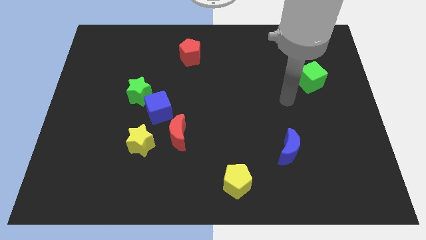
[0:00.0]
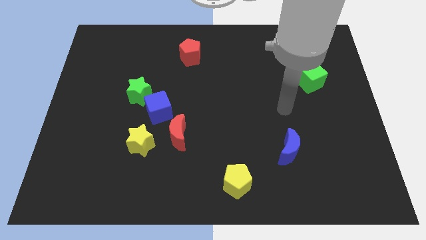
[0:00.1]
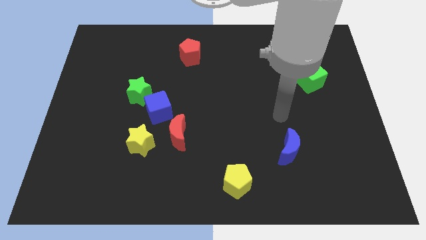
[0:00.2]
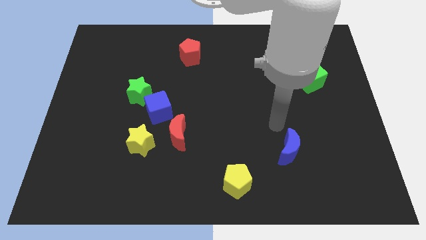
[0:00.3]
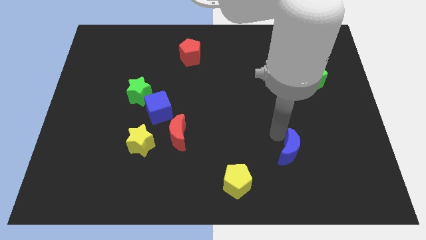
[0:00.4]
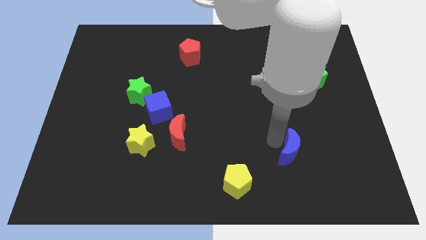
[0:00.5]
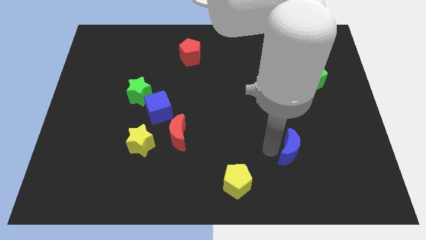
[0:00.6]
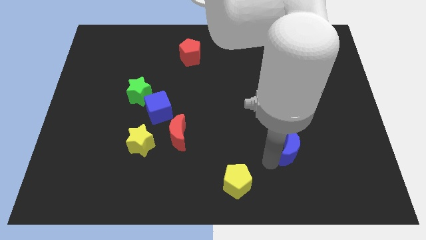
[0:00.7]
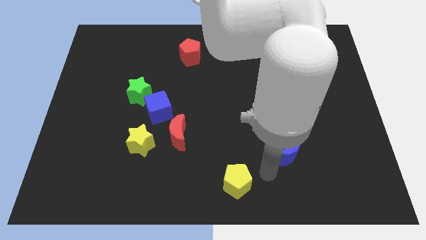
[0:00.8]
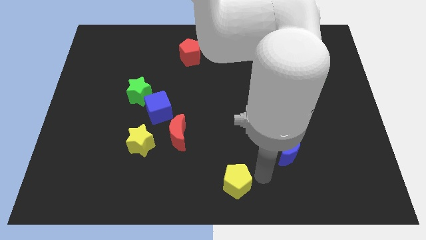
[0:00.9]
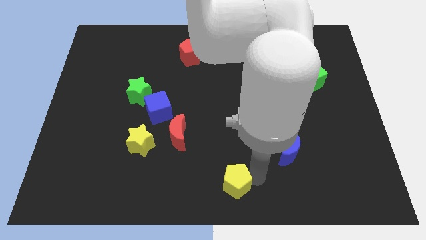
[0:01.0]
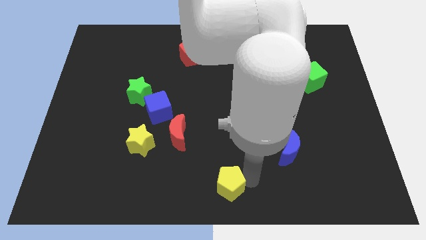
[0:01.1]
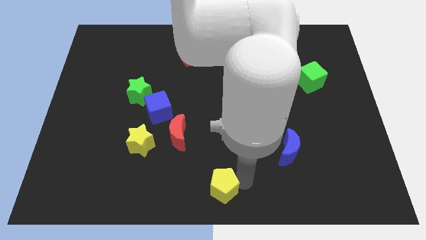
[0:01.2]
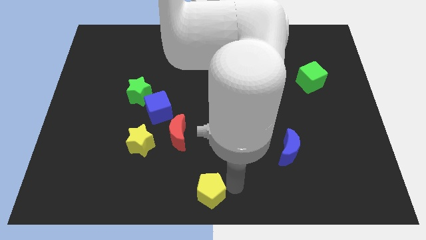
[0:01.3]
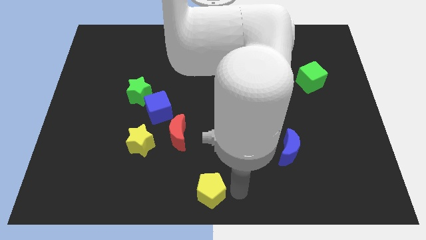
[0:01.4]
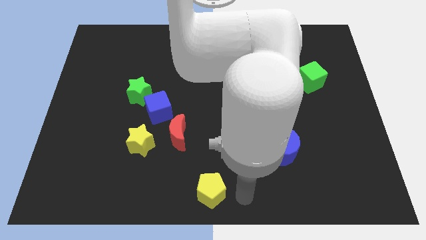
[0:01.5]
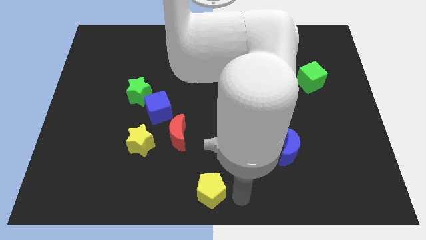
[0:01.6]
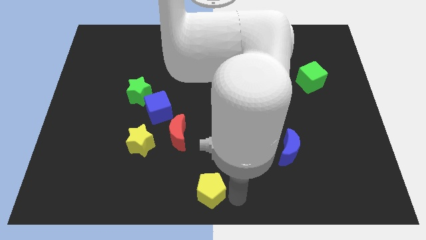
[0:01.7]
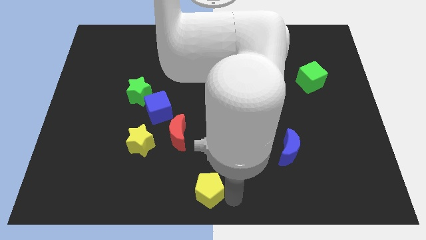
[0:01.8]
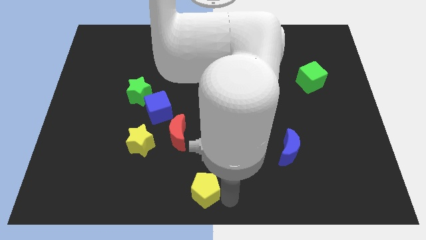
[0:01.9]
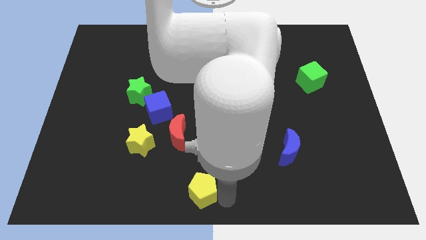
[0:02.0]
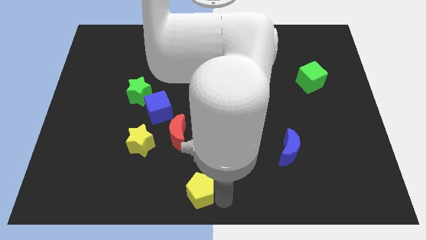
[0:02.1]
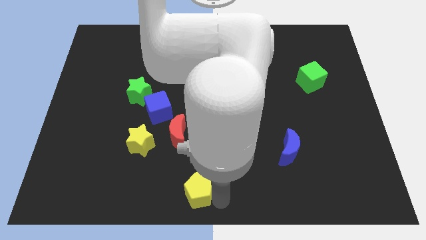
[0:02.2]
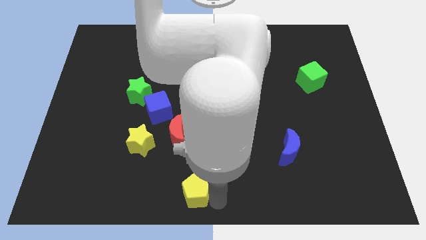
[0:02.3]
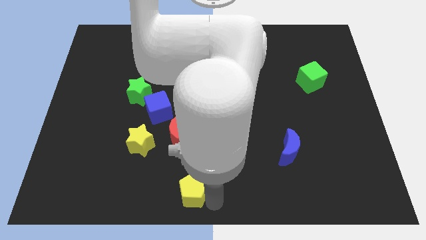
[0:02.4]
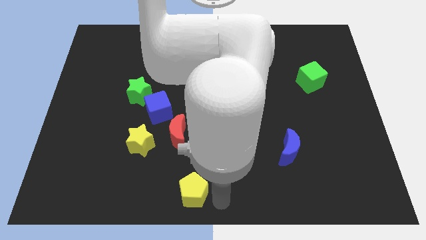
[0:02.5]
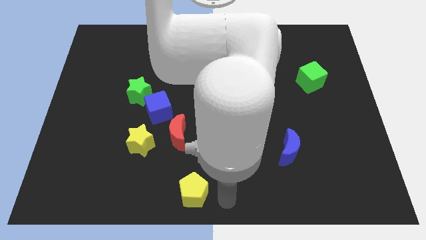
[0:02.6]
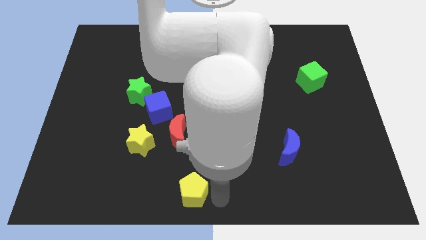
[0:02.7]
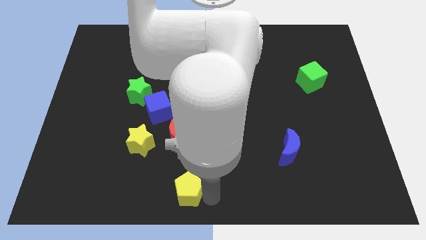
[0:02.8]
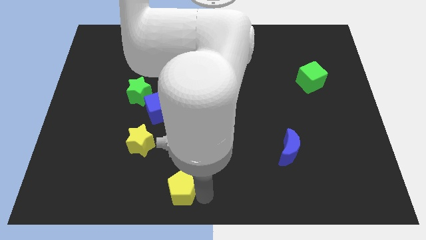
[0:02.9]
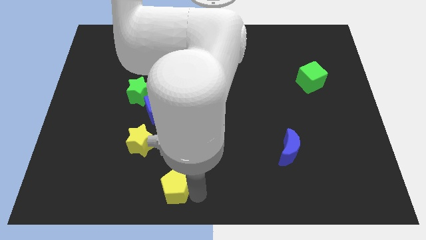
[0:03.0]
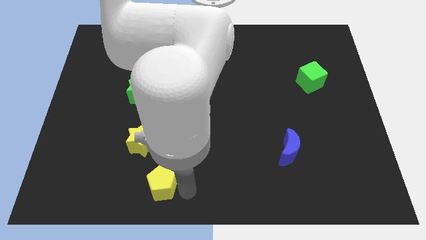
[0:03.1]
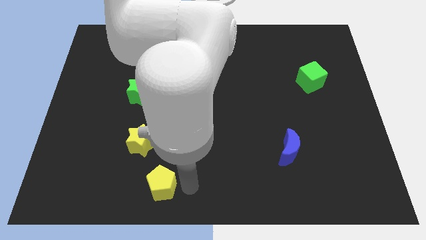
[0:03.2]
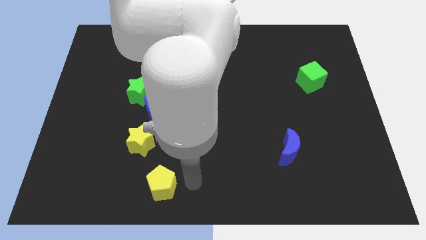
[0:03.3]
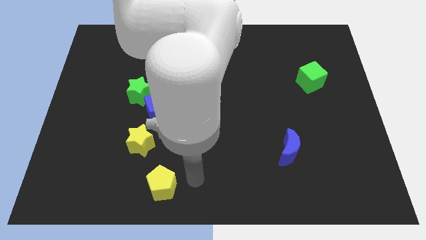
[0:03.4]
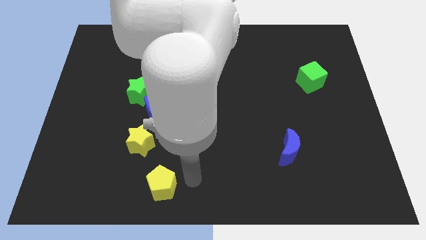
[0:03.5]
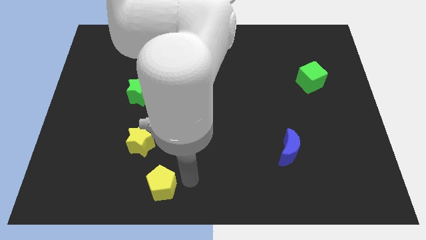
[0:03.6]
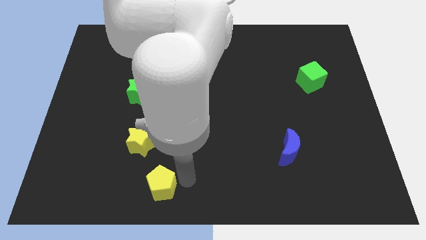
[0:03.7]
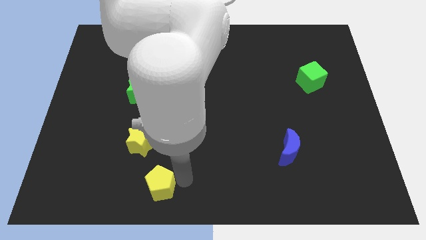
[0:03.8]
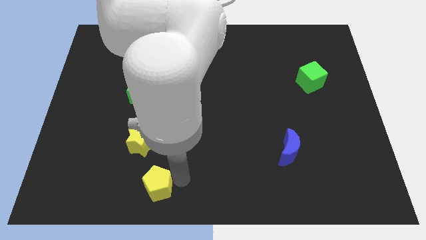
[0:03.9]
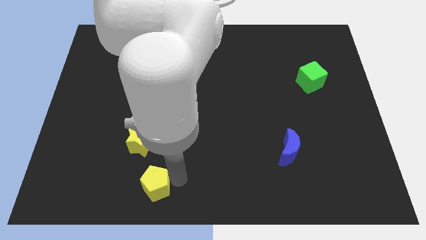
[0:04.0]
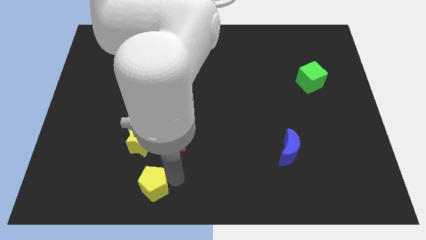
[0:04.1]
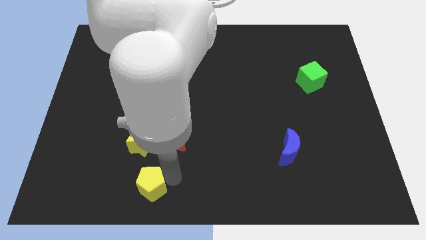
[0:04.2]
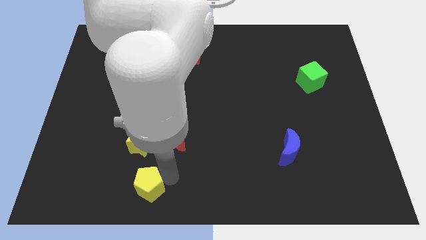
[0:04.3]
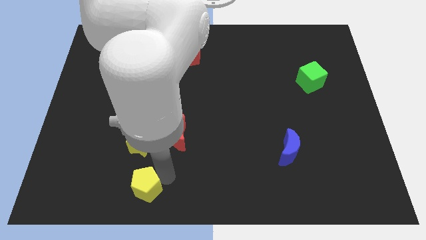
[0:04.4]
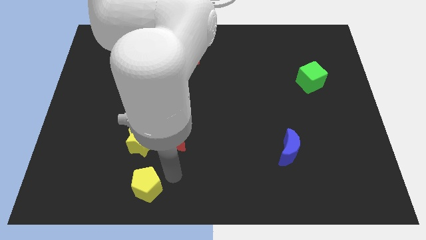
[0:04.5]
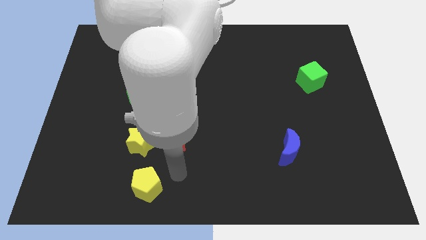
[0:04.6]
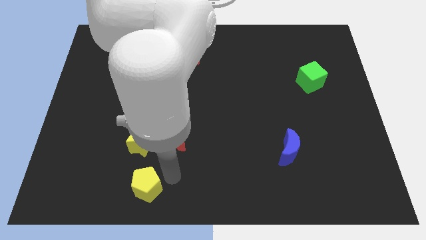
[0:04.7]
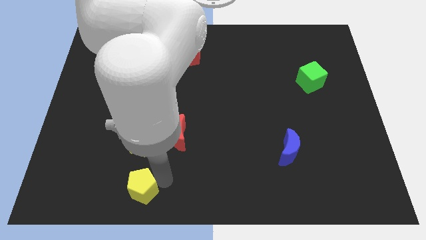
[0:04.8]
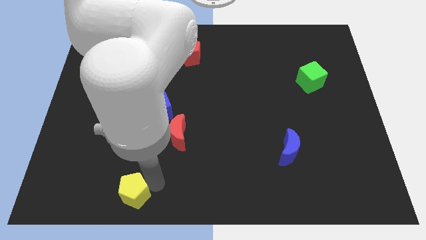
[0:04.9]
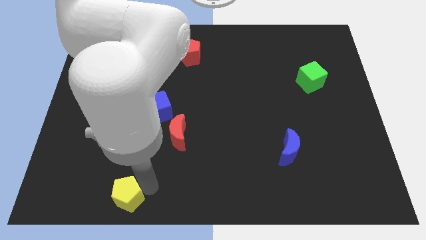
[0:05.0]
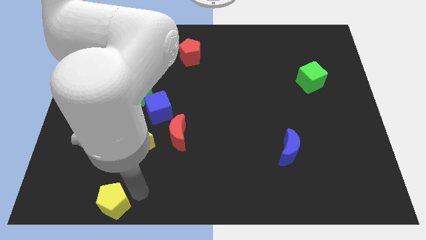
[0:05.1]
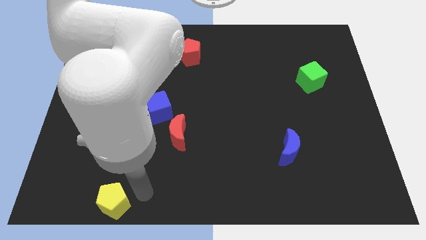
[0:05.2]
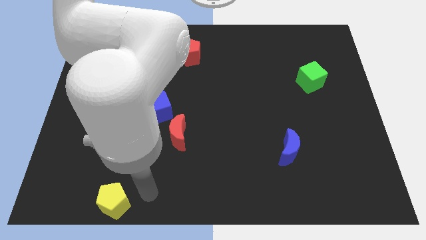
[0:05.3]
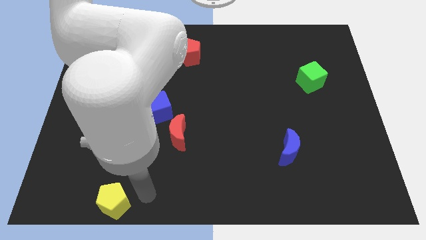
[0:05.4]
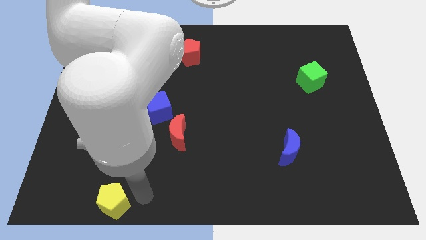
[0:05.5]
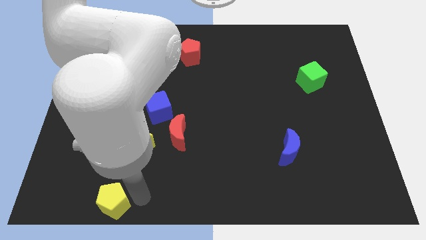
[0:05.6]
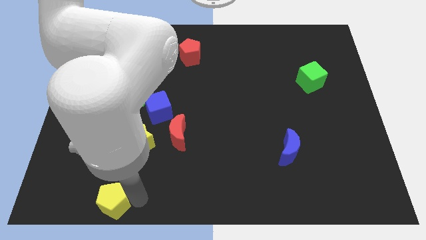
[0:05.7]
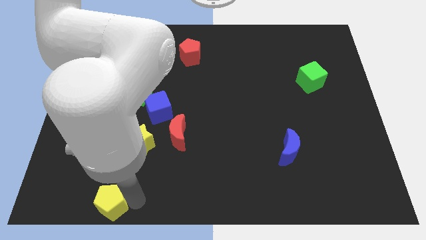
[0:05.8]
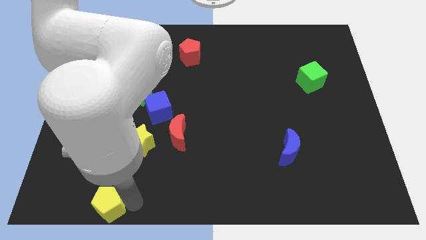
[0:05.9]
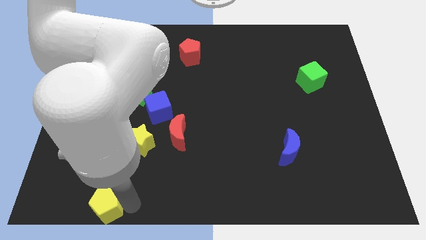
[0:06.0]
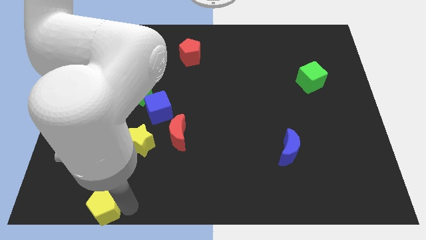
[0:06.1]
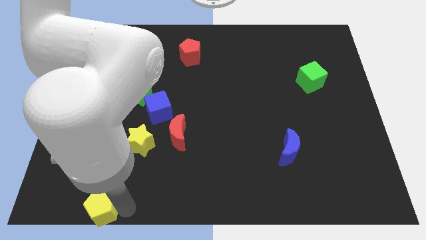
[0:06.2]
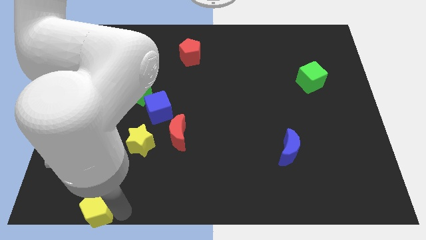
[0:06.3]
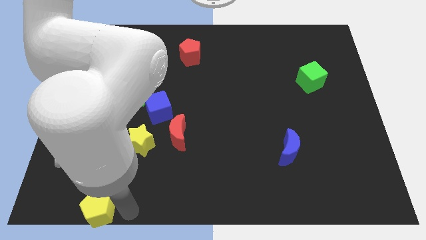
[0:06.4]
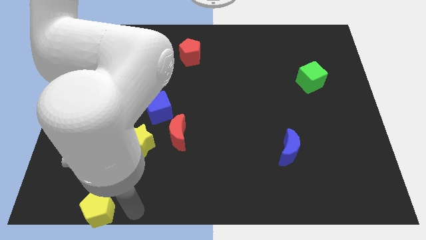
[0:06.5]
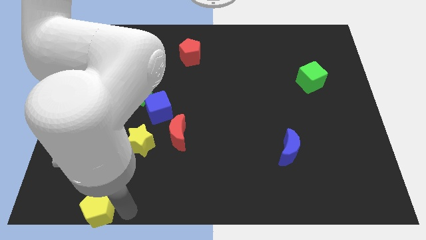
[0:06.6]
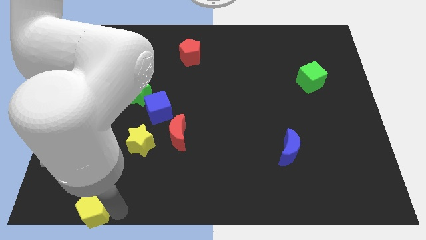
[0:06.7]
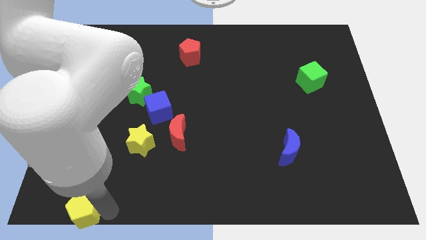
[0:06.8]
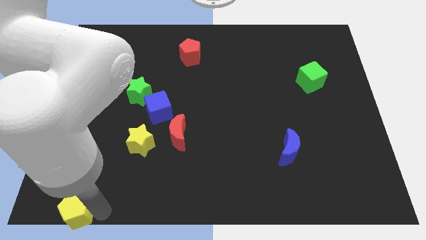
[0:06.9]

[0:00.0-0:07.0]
slide the yellow pentagon to the bottom left corner
